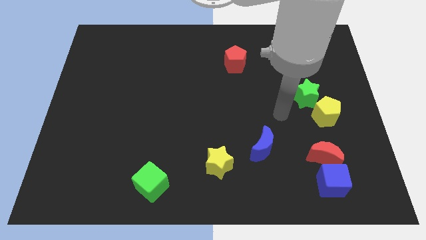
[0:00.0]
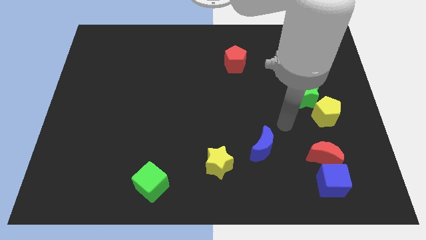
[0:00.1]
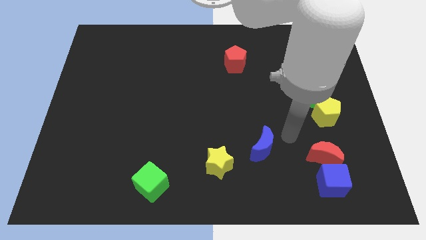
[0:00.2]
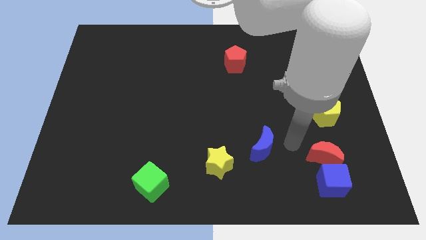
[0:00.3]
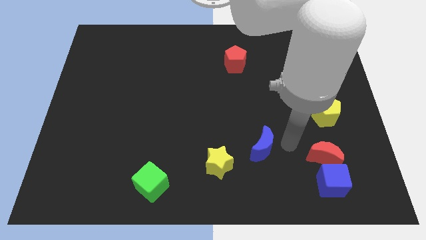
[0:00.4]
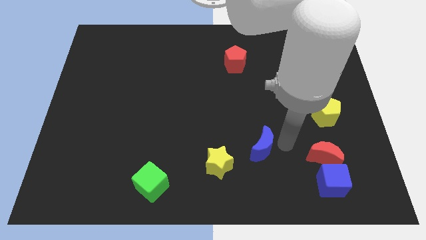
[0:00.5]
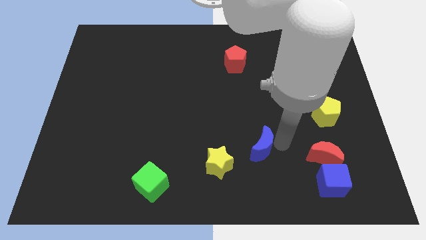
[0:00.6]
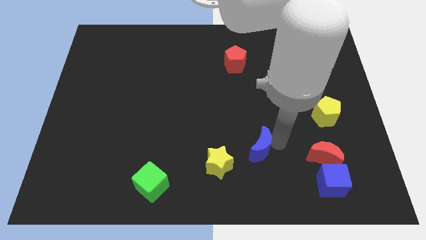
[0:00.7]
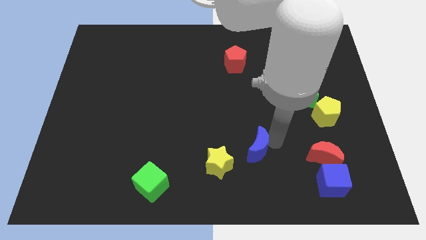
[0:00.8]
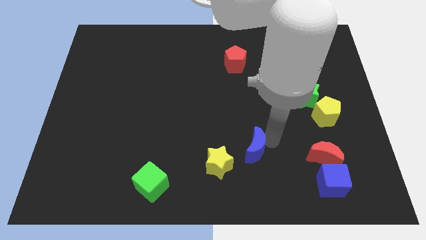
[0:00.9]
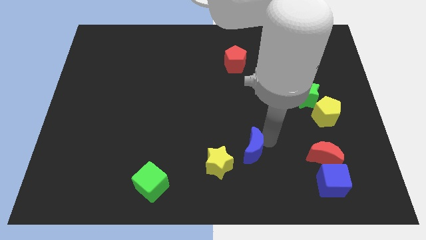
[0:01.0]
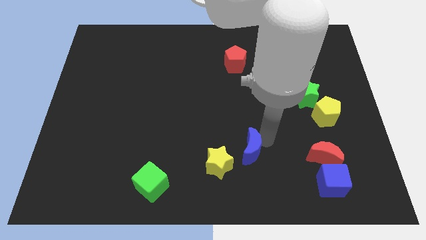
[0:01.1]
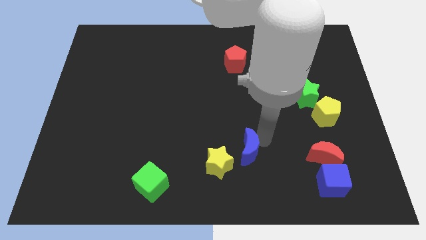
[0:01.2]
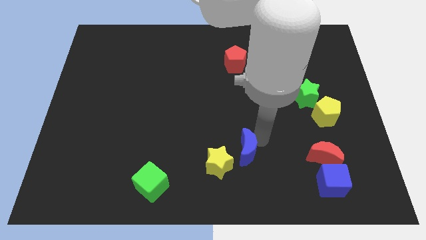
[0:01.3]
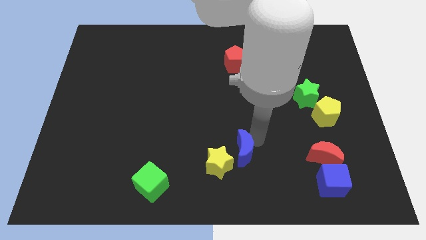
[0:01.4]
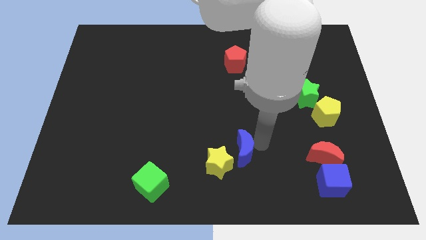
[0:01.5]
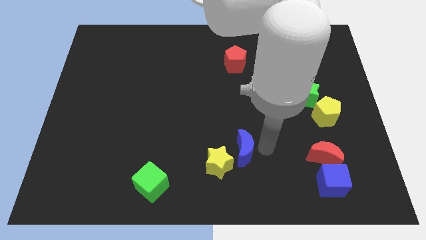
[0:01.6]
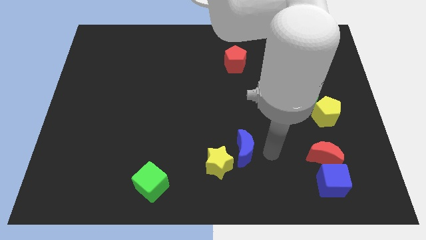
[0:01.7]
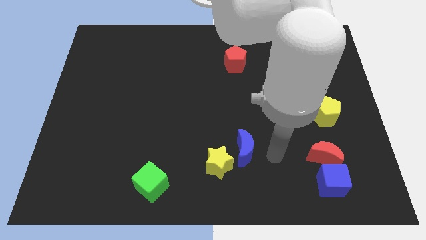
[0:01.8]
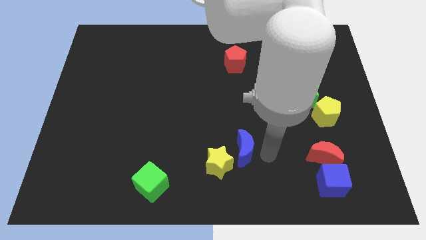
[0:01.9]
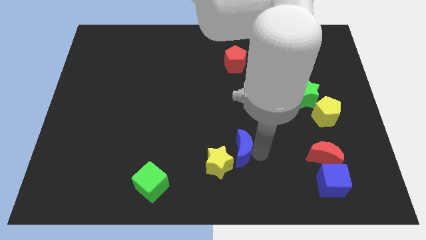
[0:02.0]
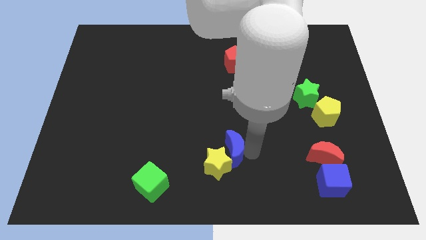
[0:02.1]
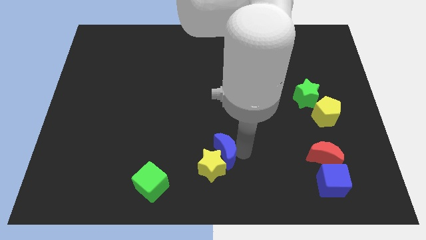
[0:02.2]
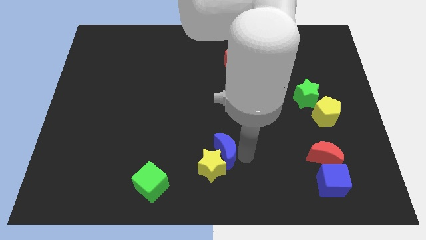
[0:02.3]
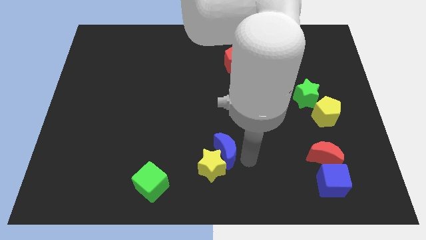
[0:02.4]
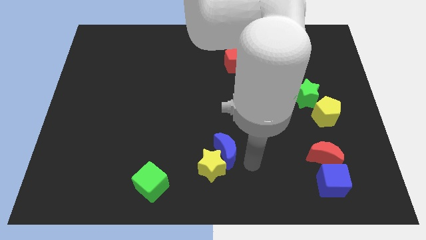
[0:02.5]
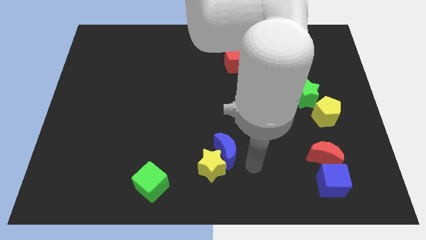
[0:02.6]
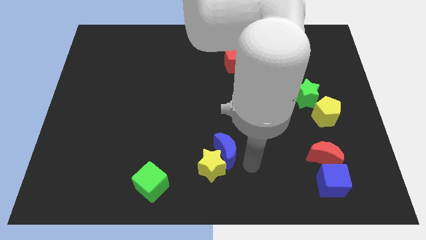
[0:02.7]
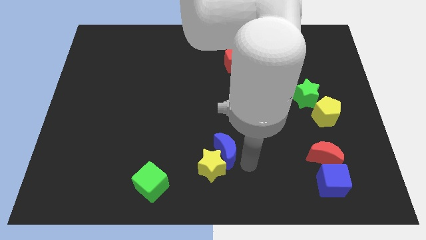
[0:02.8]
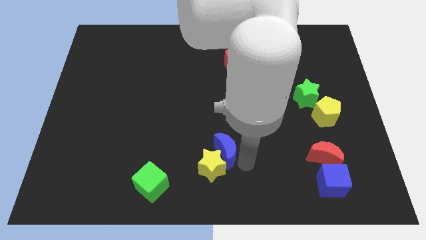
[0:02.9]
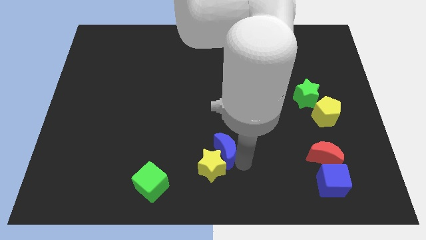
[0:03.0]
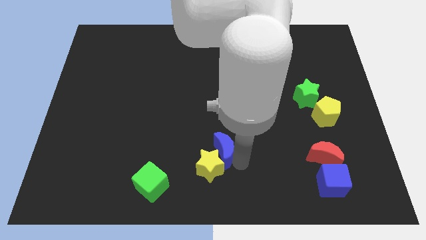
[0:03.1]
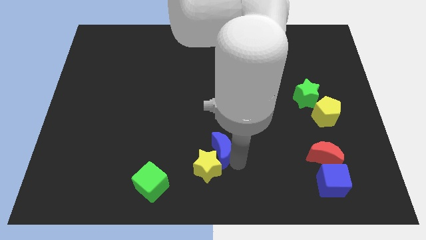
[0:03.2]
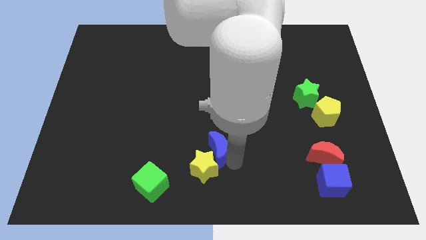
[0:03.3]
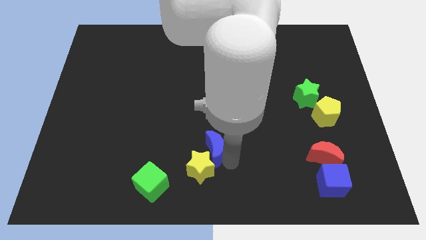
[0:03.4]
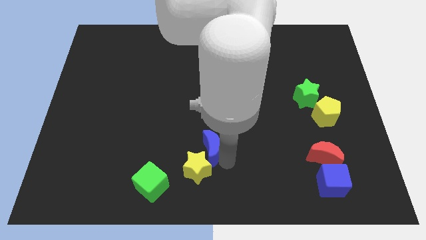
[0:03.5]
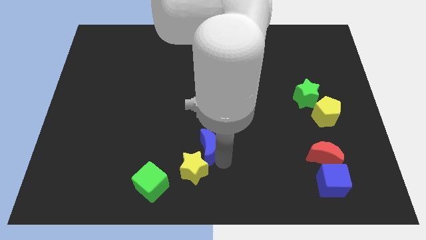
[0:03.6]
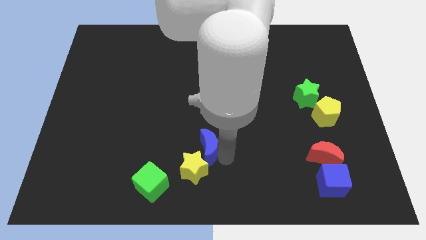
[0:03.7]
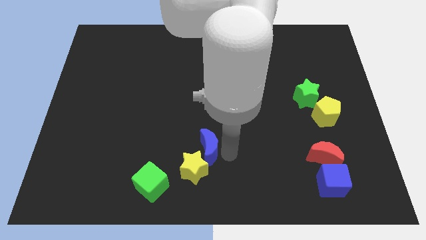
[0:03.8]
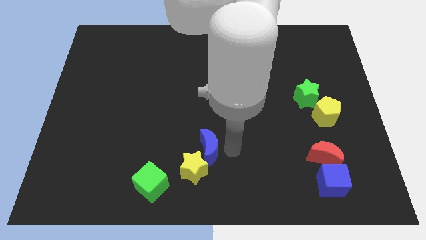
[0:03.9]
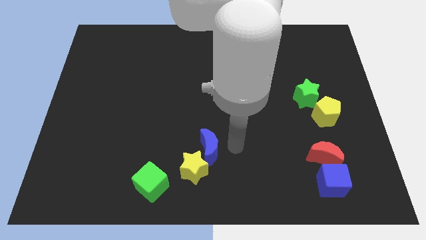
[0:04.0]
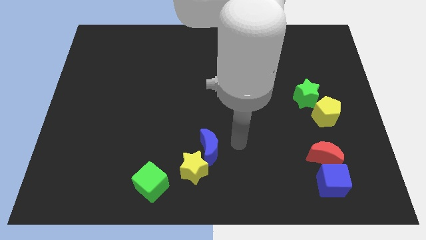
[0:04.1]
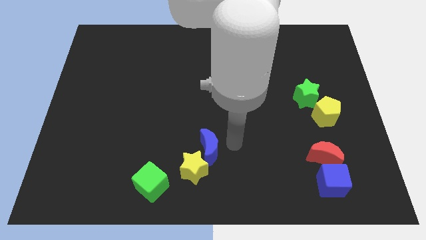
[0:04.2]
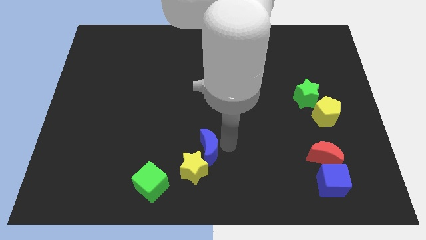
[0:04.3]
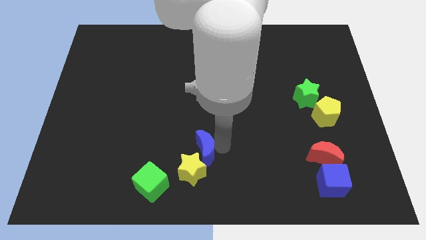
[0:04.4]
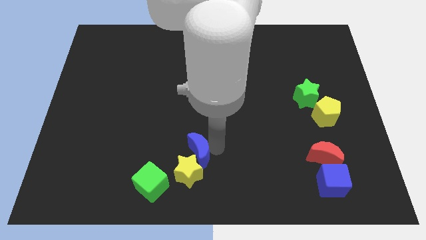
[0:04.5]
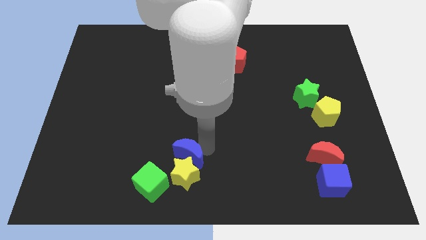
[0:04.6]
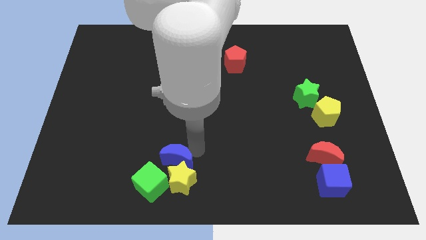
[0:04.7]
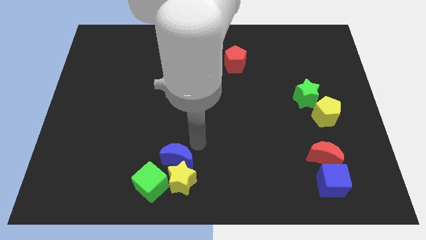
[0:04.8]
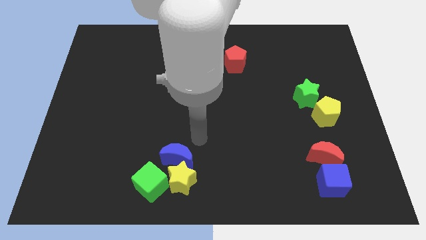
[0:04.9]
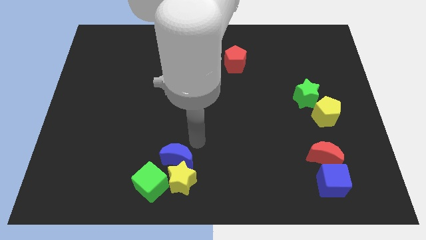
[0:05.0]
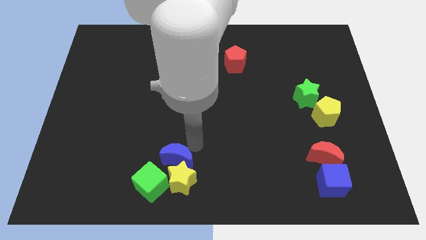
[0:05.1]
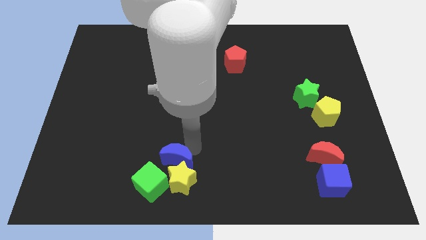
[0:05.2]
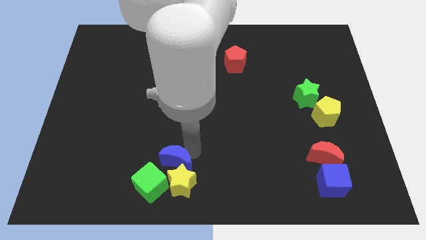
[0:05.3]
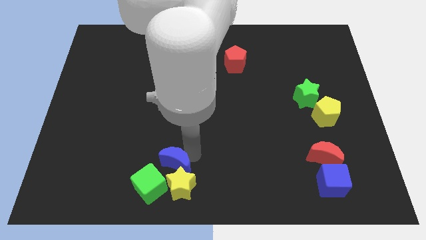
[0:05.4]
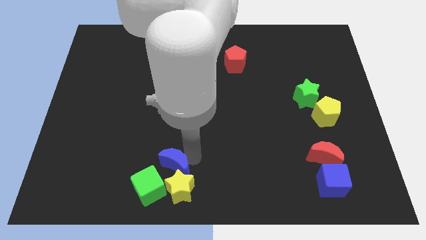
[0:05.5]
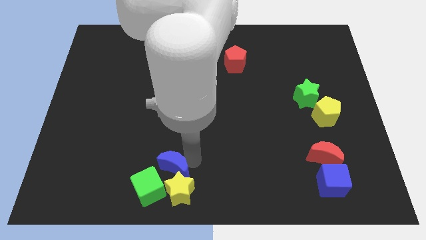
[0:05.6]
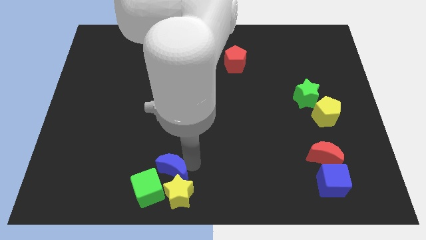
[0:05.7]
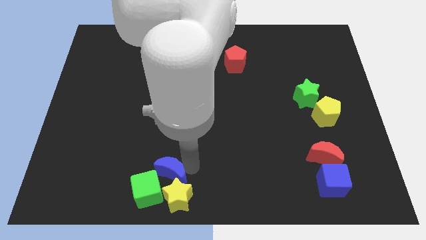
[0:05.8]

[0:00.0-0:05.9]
slide the blue moon next to the green cube

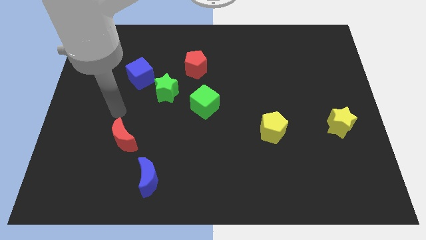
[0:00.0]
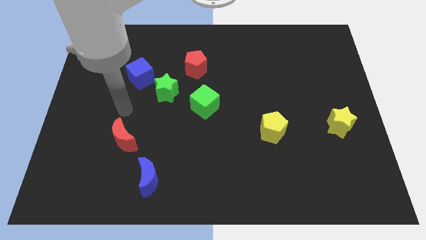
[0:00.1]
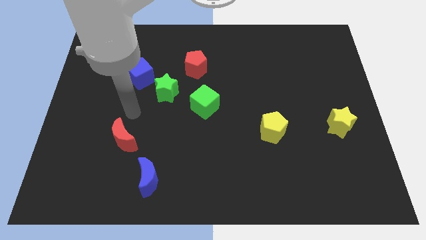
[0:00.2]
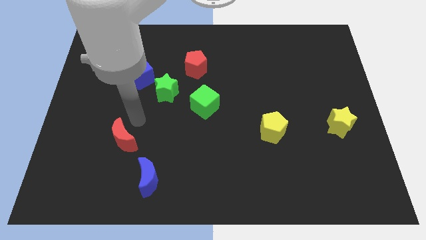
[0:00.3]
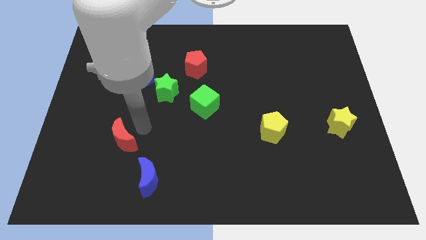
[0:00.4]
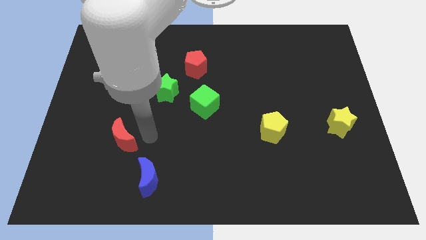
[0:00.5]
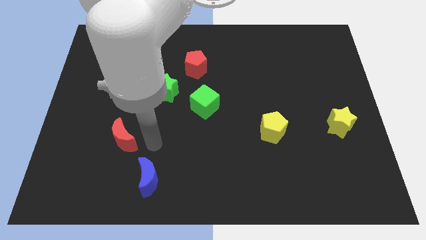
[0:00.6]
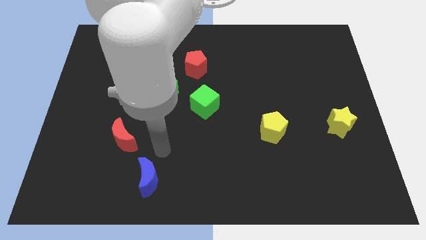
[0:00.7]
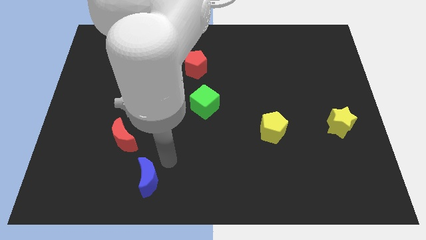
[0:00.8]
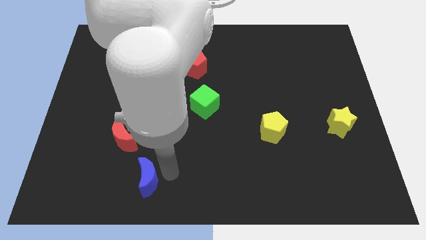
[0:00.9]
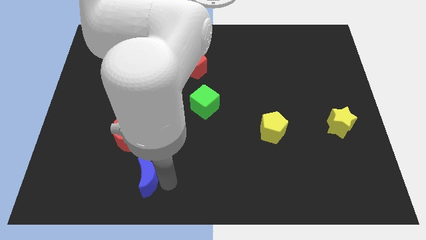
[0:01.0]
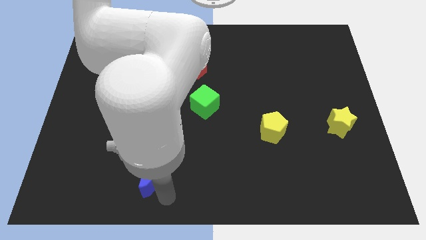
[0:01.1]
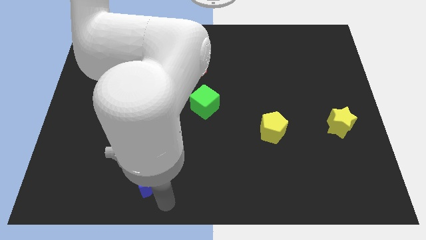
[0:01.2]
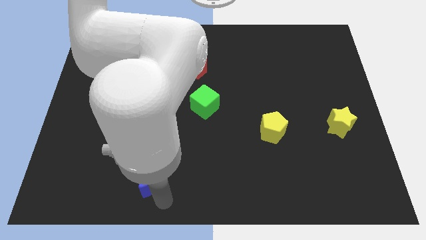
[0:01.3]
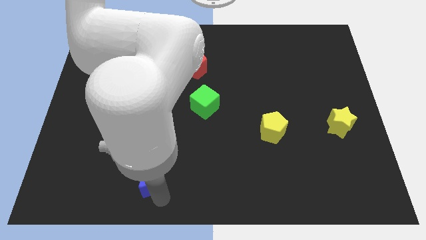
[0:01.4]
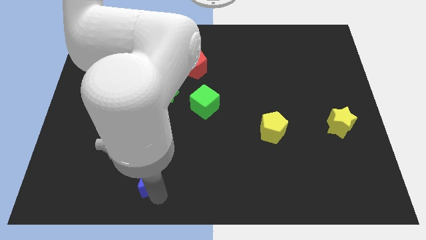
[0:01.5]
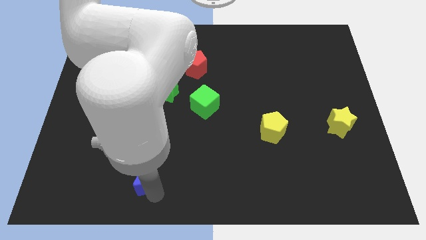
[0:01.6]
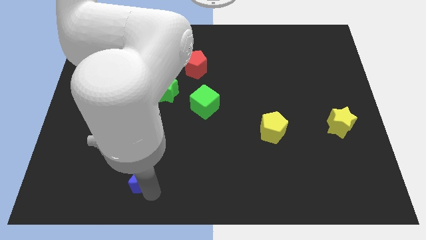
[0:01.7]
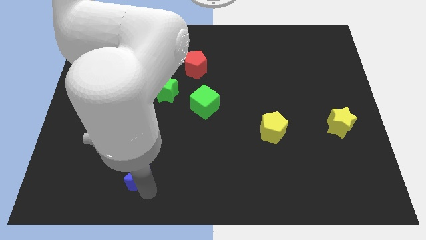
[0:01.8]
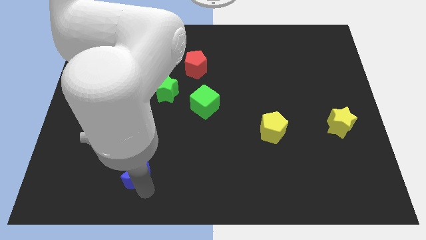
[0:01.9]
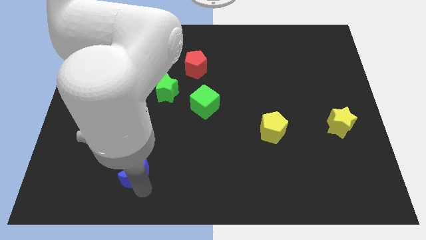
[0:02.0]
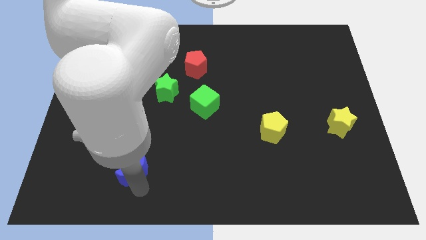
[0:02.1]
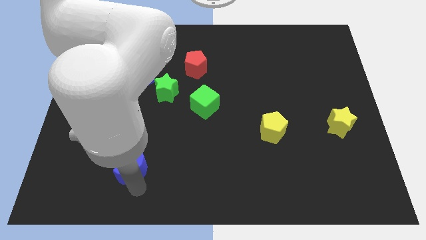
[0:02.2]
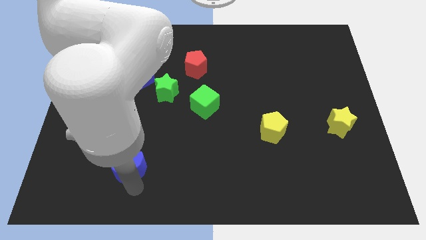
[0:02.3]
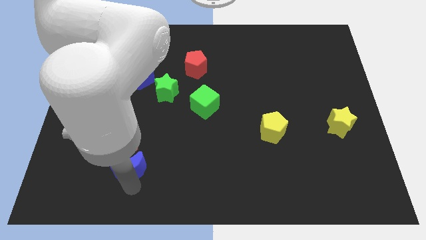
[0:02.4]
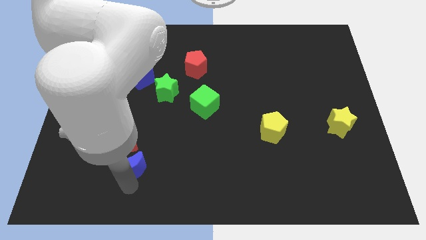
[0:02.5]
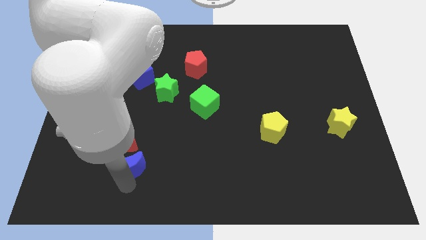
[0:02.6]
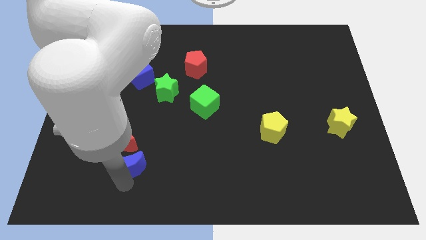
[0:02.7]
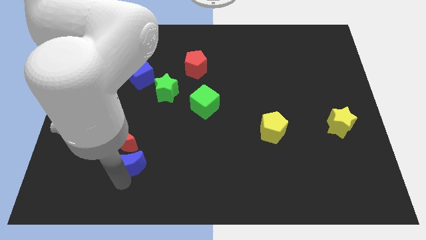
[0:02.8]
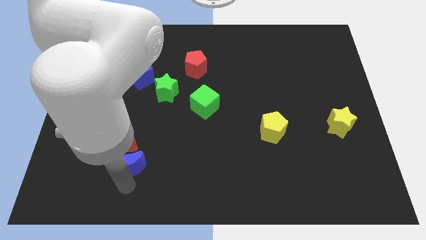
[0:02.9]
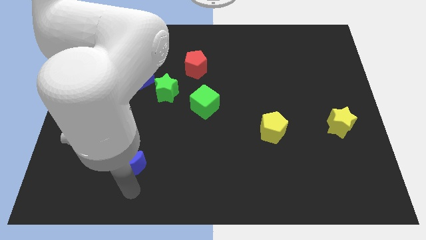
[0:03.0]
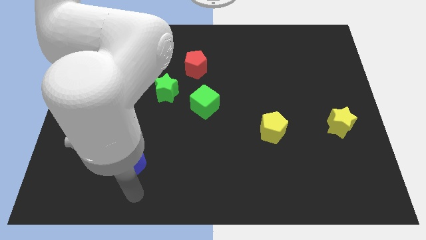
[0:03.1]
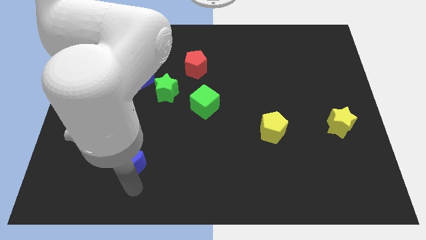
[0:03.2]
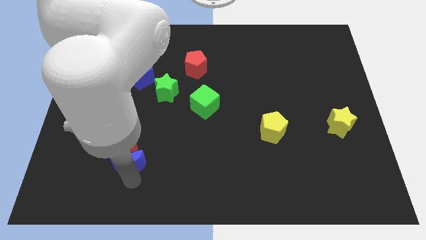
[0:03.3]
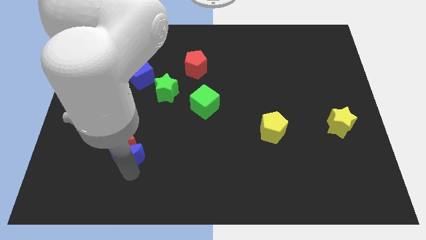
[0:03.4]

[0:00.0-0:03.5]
slide the blue moon to the red moon
